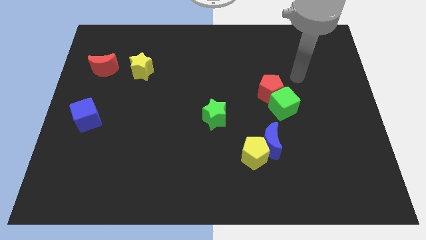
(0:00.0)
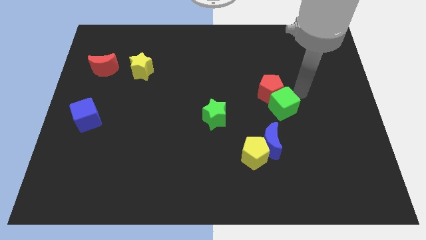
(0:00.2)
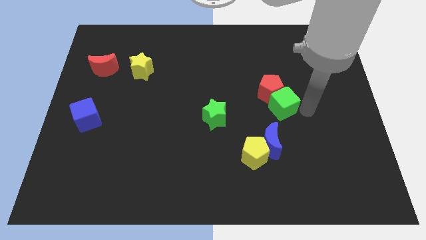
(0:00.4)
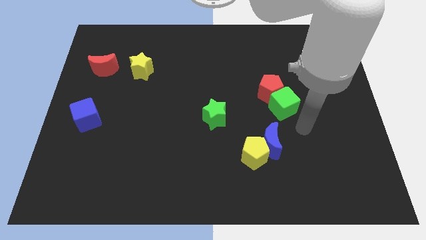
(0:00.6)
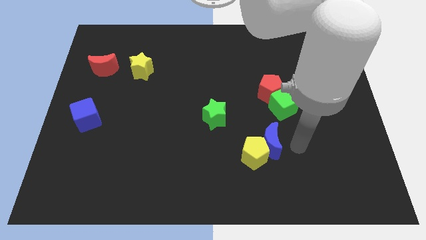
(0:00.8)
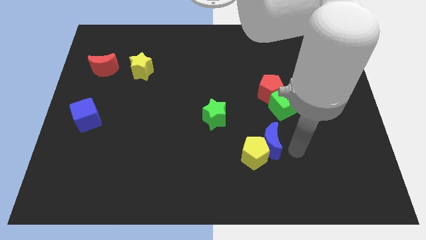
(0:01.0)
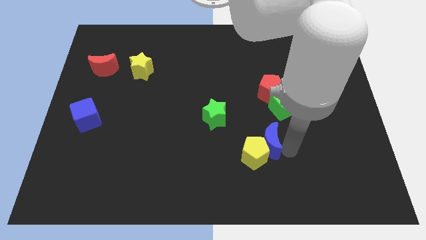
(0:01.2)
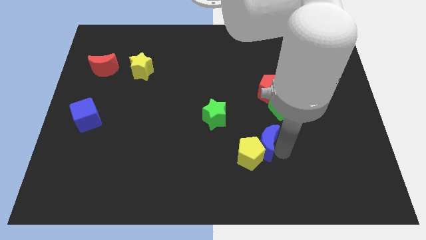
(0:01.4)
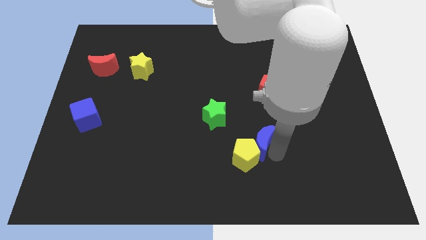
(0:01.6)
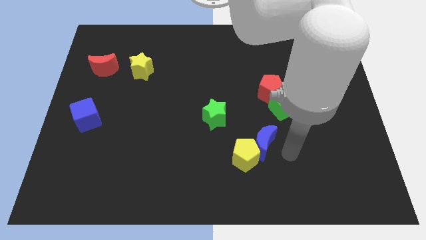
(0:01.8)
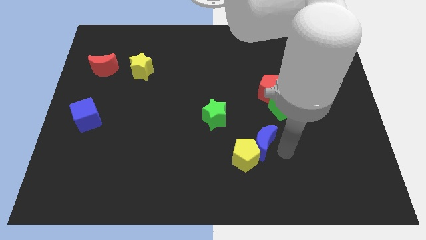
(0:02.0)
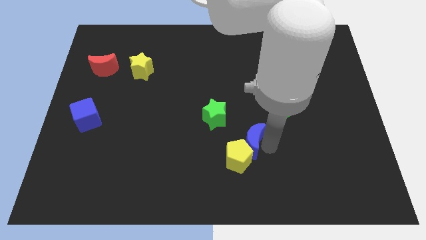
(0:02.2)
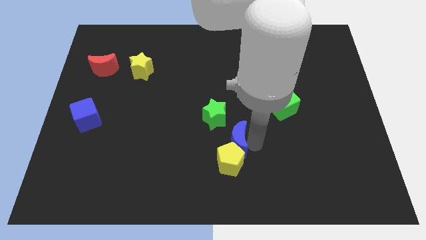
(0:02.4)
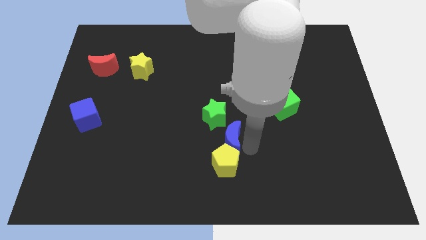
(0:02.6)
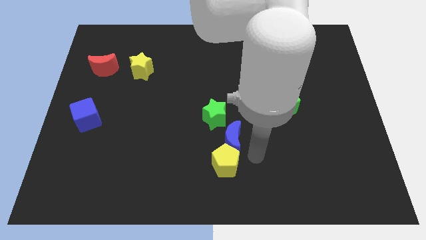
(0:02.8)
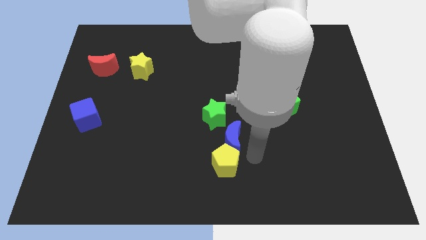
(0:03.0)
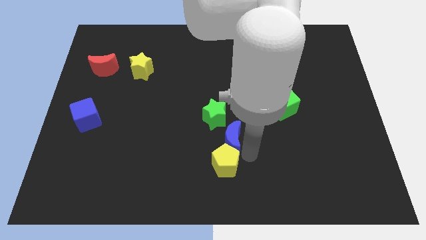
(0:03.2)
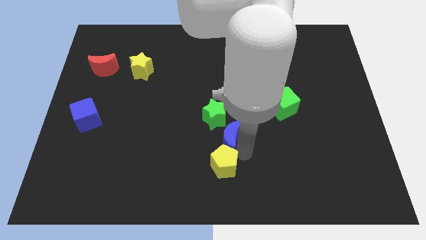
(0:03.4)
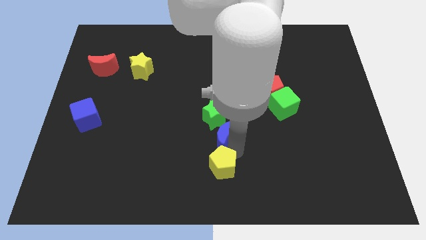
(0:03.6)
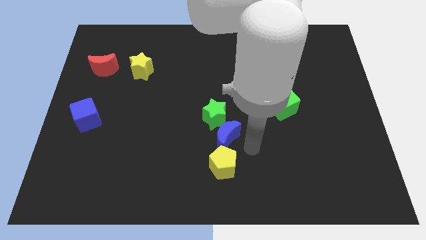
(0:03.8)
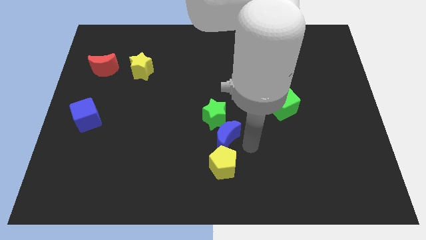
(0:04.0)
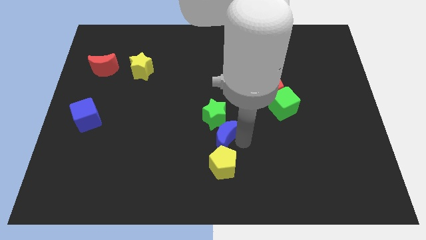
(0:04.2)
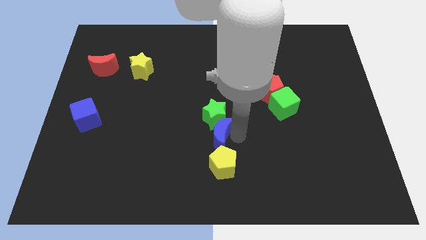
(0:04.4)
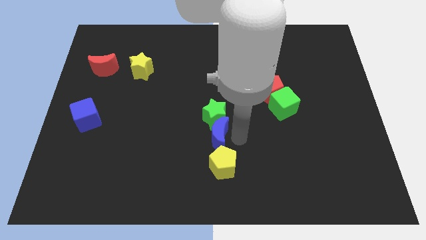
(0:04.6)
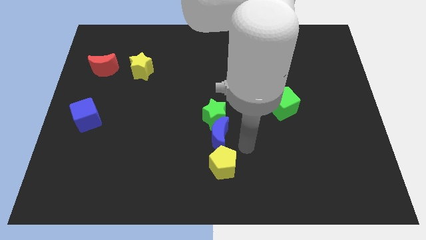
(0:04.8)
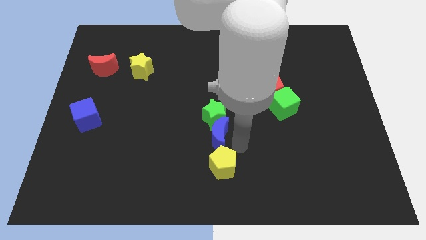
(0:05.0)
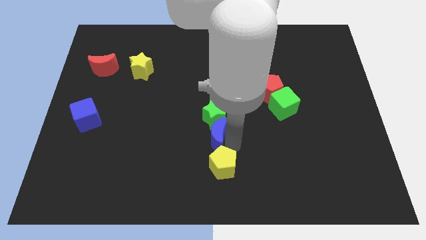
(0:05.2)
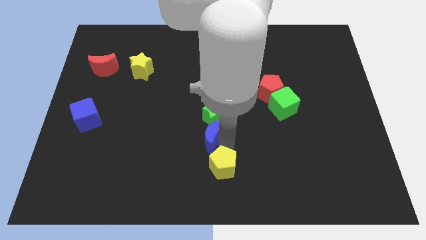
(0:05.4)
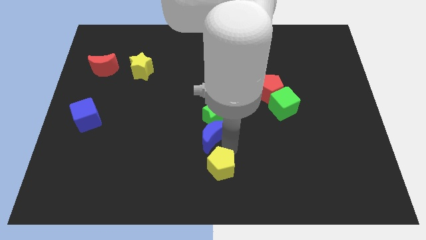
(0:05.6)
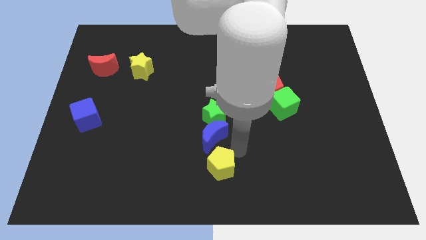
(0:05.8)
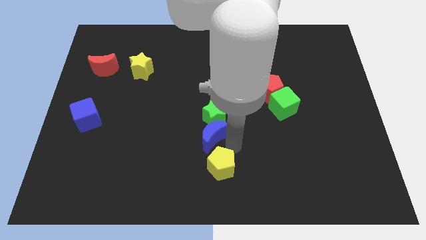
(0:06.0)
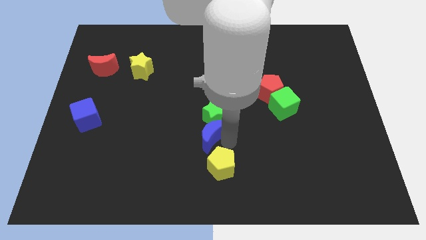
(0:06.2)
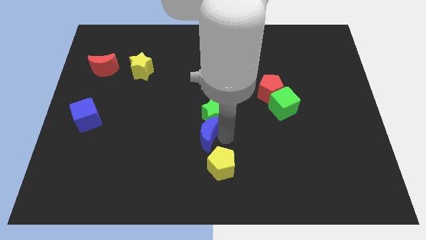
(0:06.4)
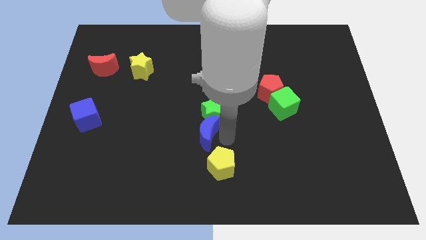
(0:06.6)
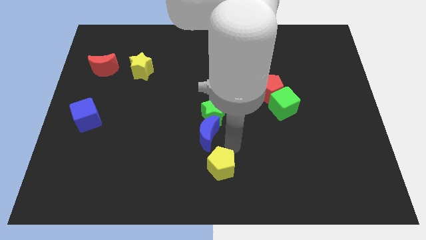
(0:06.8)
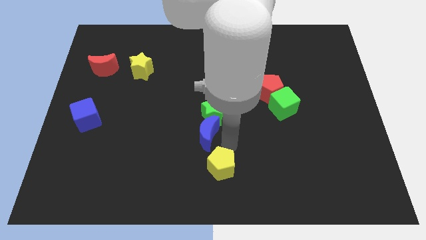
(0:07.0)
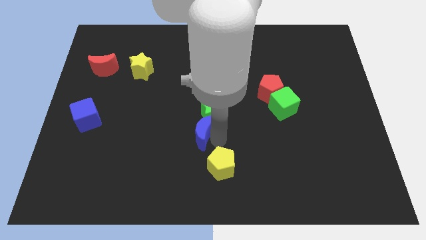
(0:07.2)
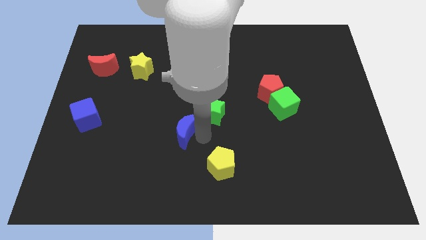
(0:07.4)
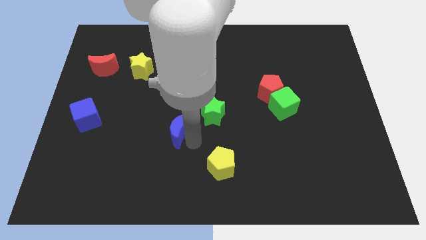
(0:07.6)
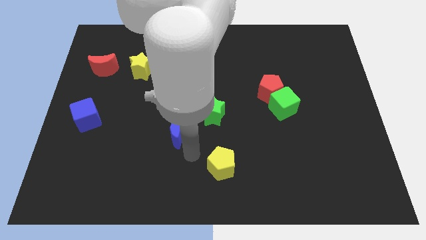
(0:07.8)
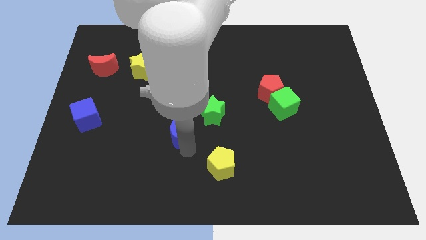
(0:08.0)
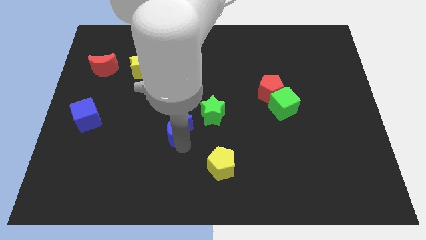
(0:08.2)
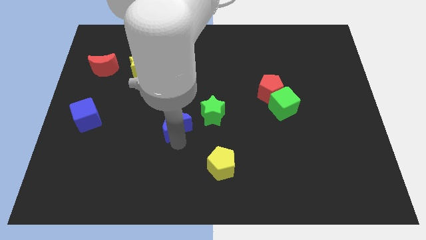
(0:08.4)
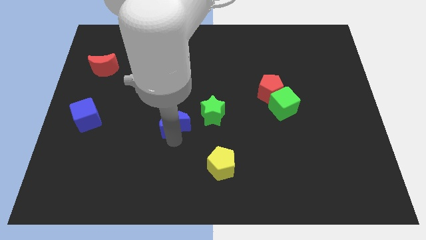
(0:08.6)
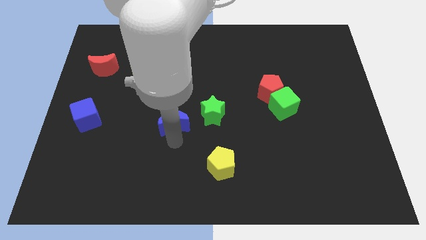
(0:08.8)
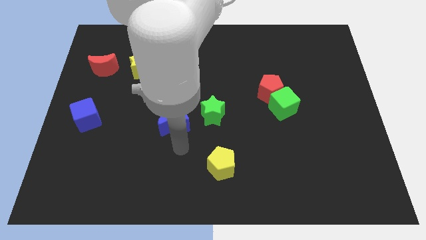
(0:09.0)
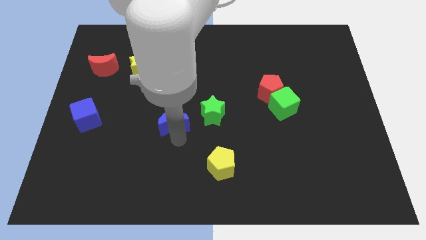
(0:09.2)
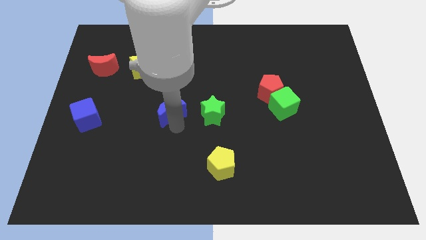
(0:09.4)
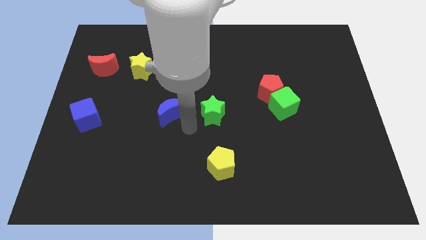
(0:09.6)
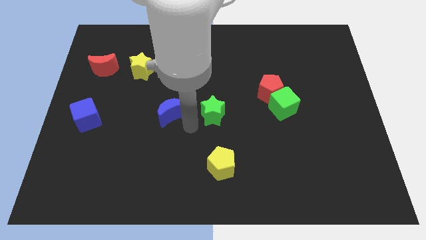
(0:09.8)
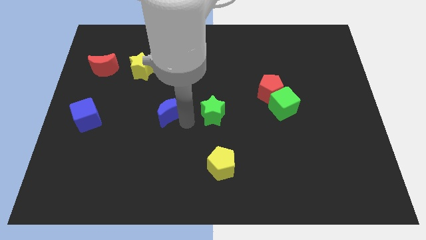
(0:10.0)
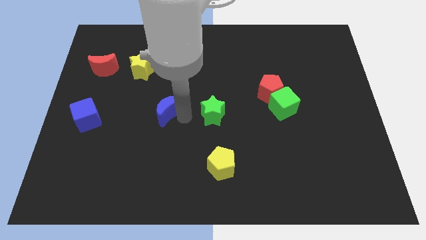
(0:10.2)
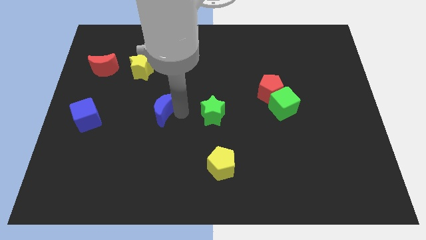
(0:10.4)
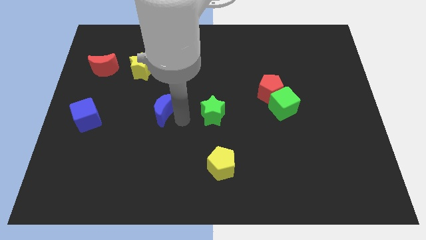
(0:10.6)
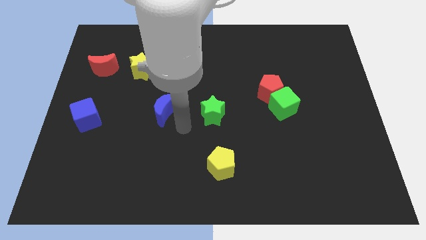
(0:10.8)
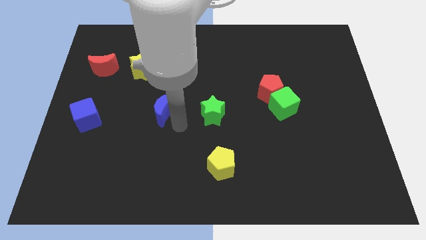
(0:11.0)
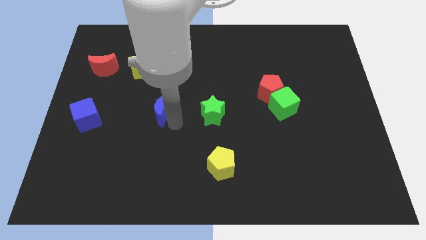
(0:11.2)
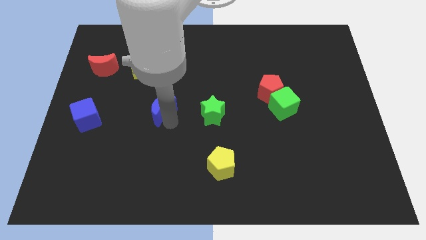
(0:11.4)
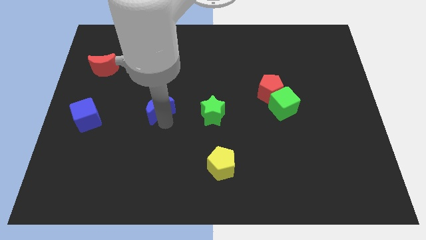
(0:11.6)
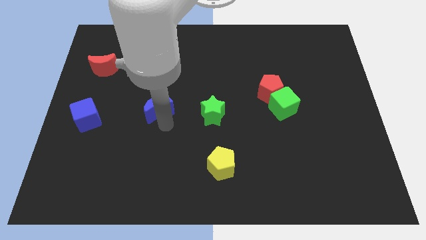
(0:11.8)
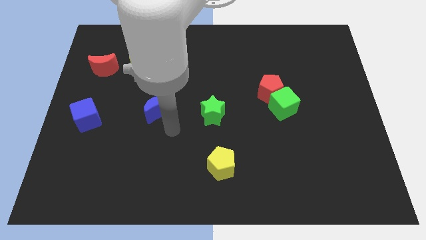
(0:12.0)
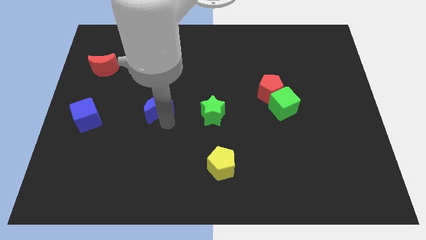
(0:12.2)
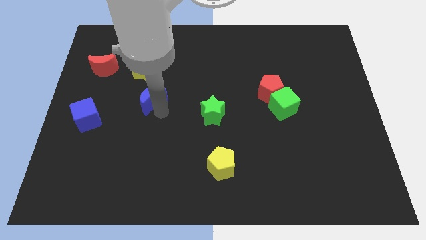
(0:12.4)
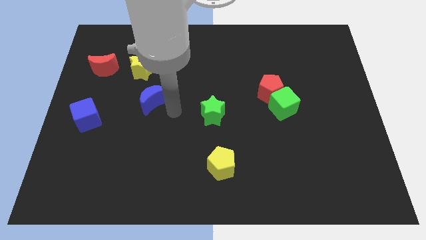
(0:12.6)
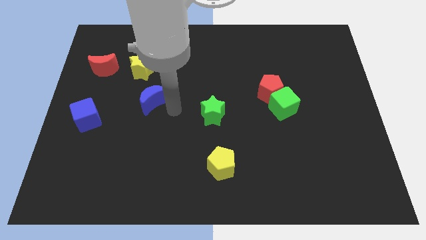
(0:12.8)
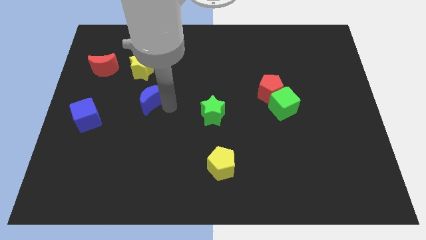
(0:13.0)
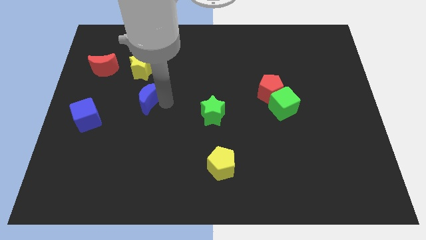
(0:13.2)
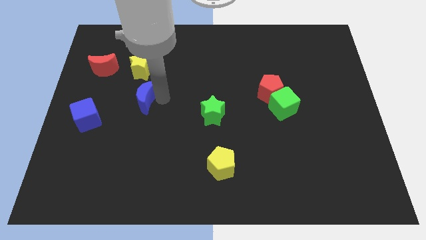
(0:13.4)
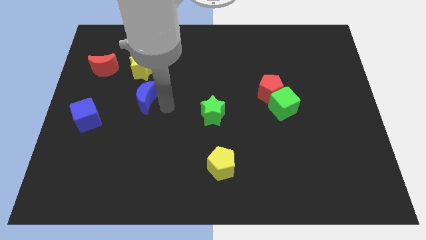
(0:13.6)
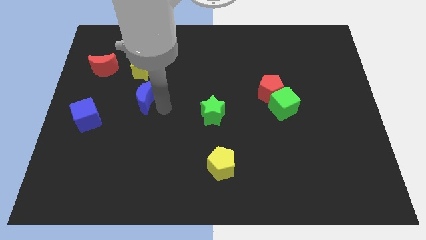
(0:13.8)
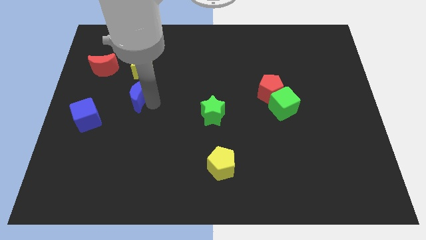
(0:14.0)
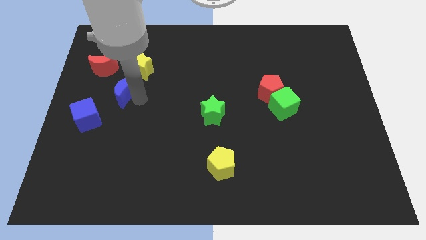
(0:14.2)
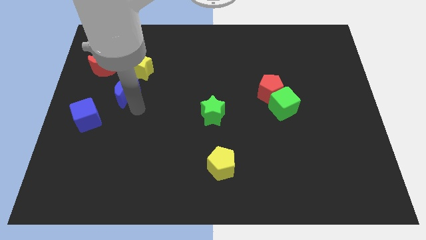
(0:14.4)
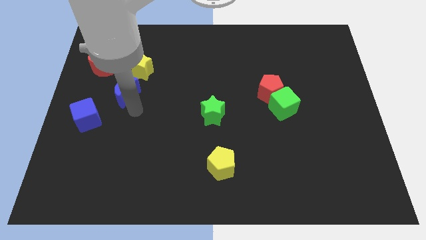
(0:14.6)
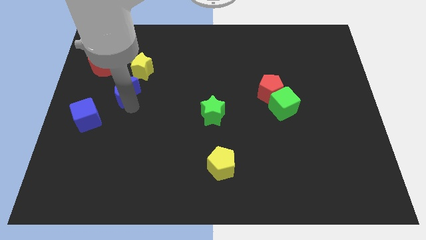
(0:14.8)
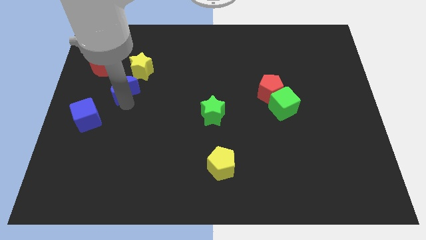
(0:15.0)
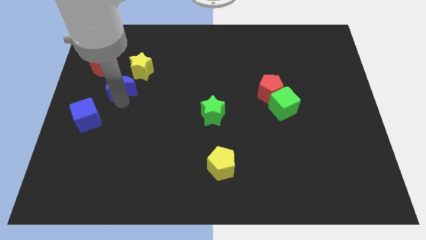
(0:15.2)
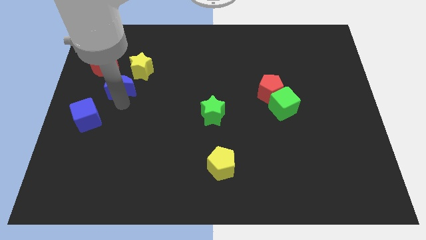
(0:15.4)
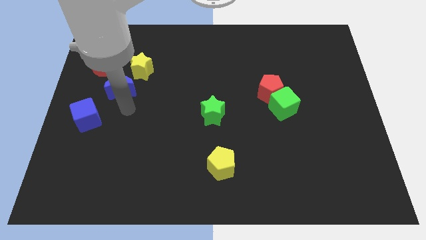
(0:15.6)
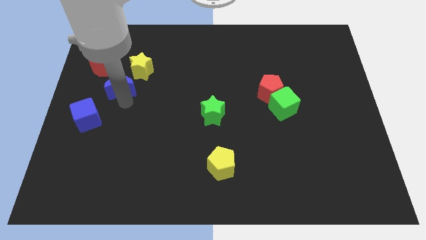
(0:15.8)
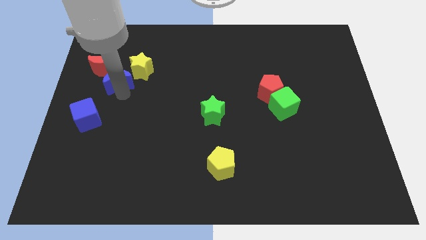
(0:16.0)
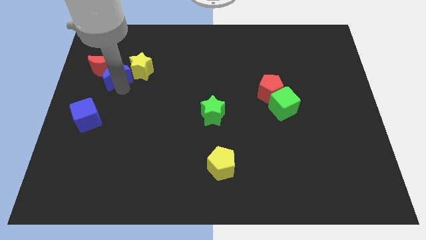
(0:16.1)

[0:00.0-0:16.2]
slide the blue moon next to the red moon
